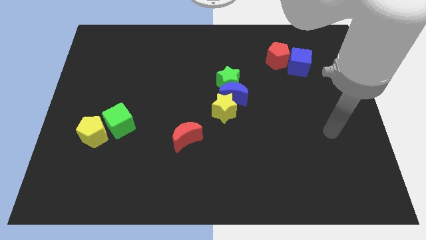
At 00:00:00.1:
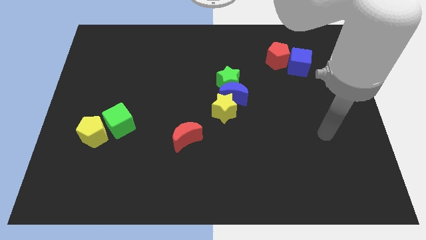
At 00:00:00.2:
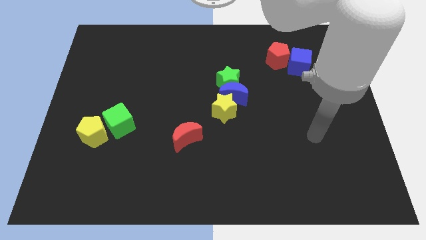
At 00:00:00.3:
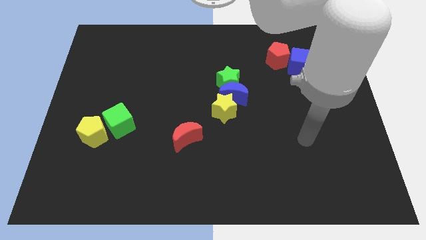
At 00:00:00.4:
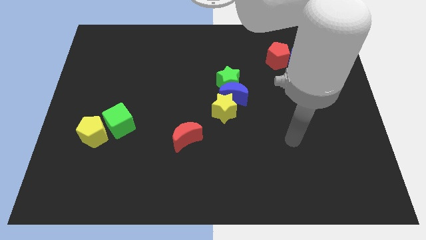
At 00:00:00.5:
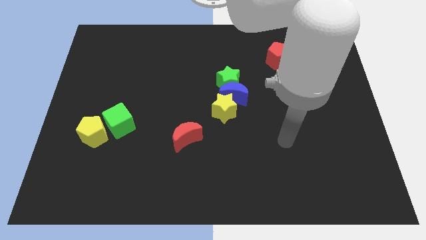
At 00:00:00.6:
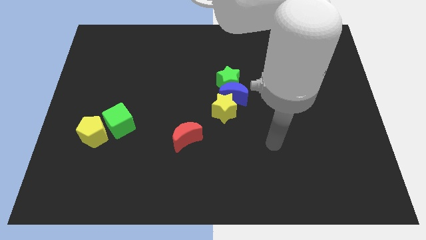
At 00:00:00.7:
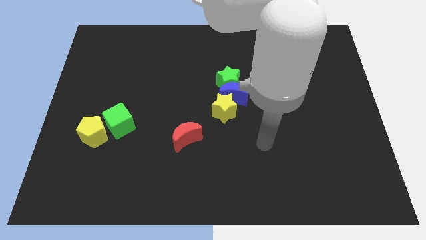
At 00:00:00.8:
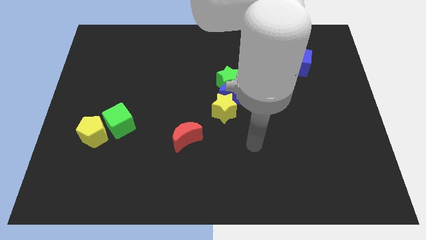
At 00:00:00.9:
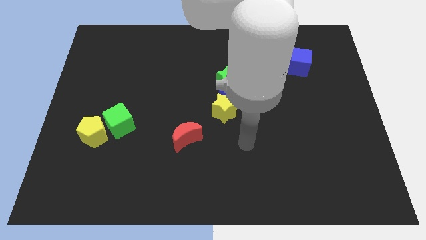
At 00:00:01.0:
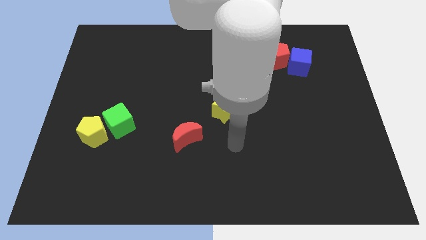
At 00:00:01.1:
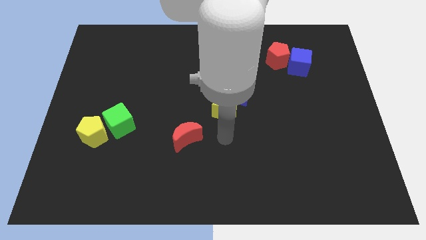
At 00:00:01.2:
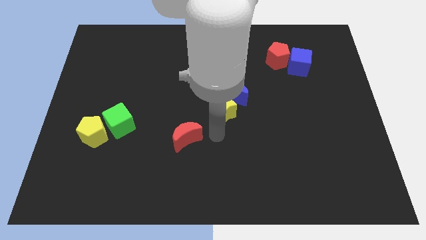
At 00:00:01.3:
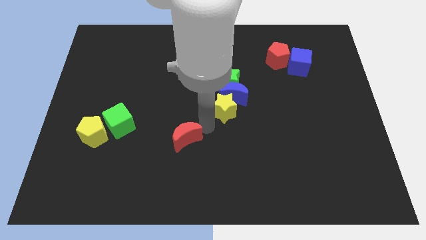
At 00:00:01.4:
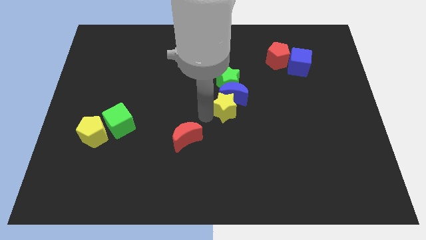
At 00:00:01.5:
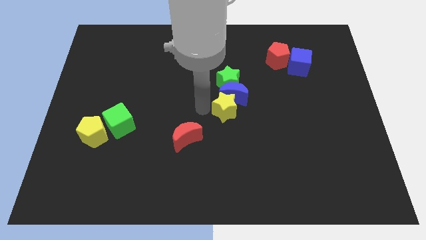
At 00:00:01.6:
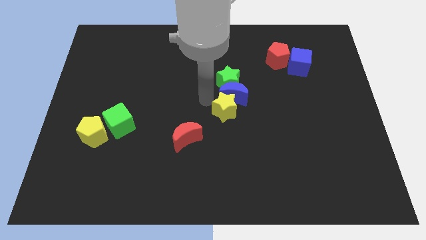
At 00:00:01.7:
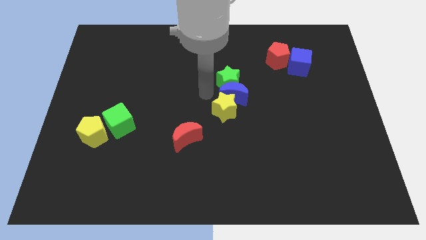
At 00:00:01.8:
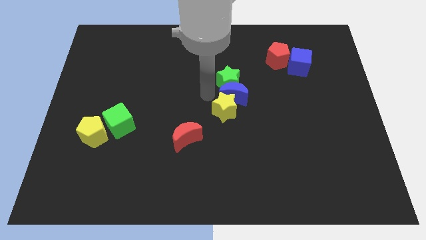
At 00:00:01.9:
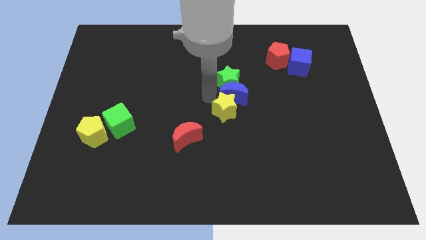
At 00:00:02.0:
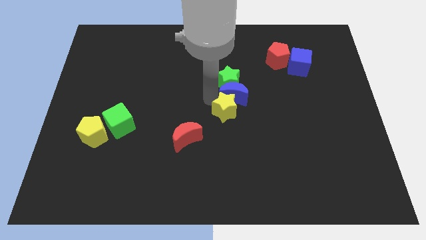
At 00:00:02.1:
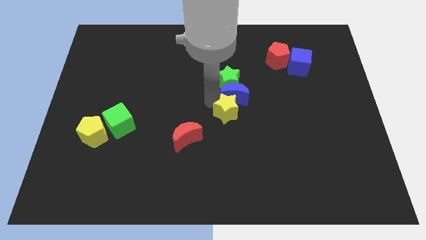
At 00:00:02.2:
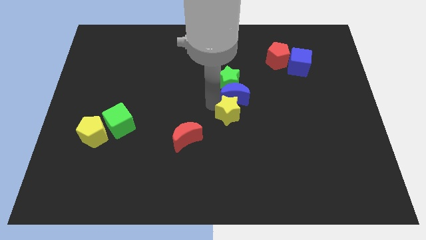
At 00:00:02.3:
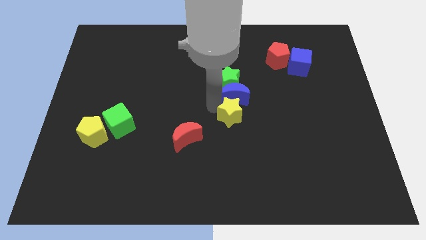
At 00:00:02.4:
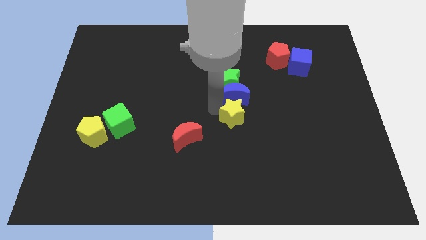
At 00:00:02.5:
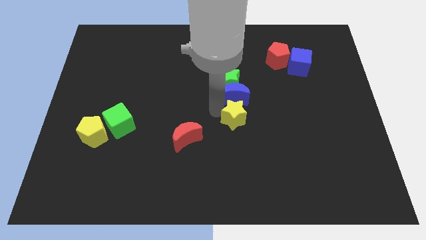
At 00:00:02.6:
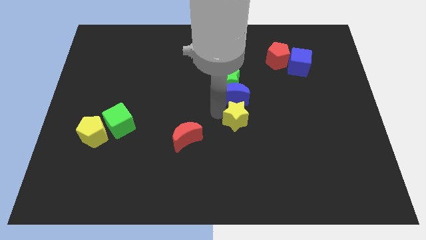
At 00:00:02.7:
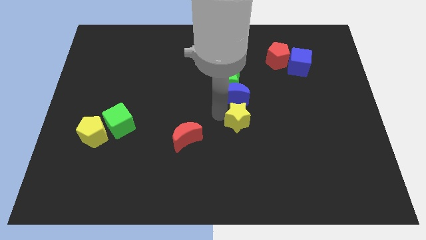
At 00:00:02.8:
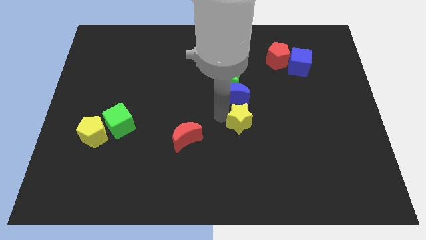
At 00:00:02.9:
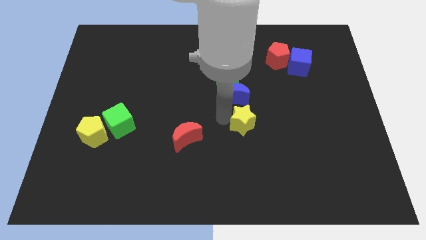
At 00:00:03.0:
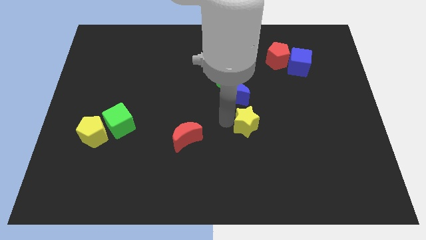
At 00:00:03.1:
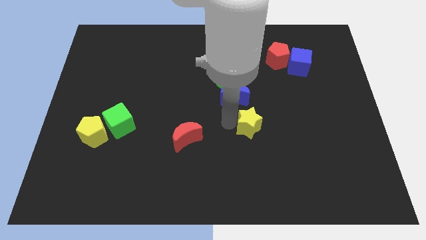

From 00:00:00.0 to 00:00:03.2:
push the yellow star slightly down and then right

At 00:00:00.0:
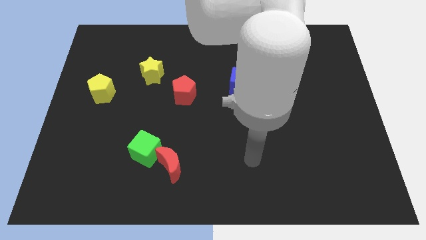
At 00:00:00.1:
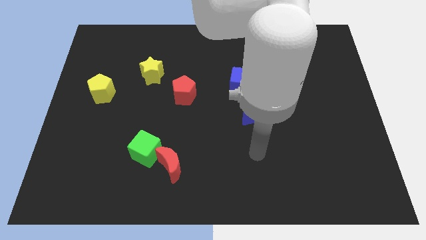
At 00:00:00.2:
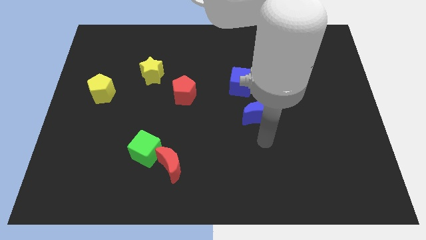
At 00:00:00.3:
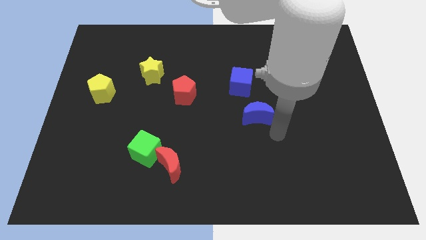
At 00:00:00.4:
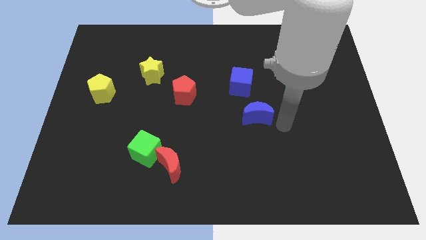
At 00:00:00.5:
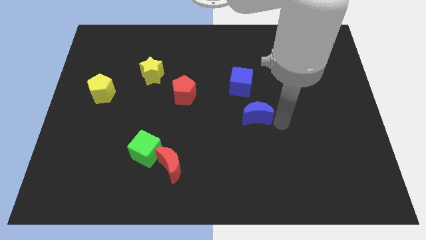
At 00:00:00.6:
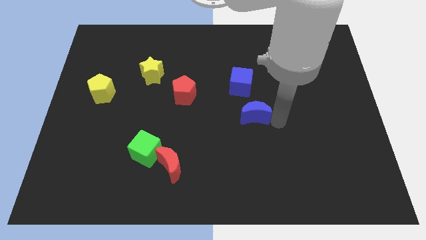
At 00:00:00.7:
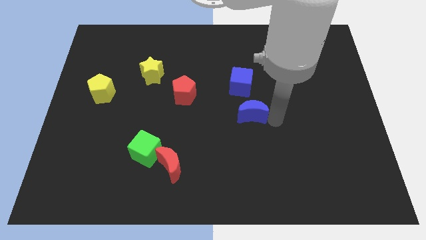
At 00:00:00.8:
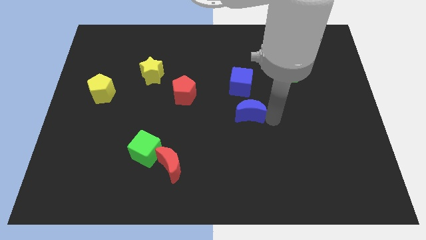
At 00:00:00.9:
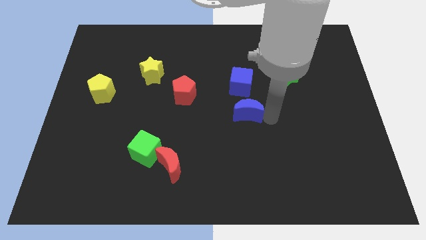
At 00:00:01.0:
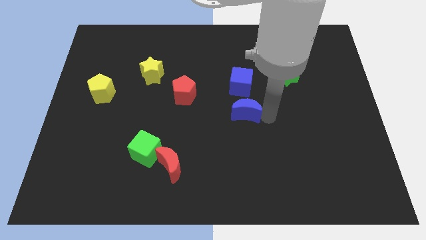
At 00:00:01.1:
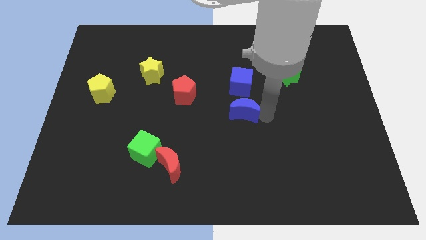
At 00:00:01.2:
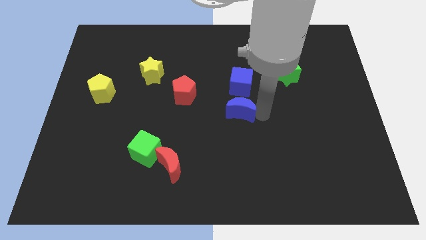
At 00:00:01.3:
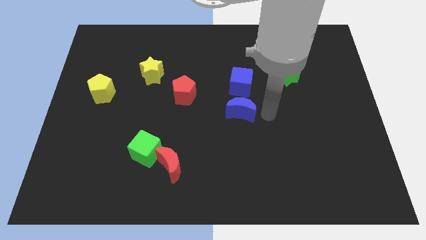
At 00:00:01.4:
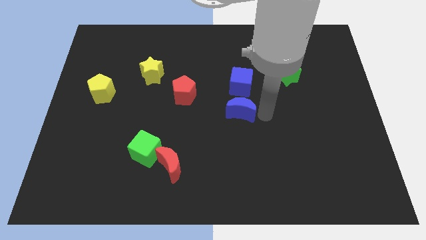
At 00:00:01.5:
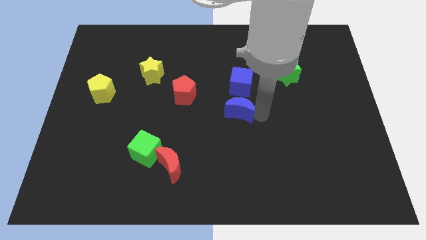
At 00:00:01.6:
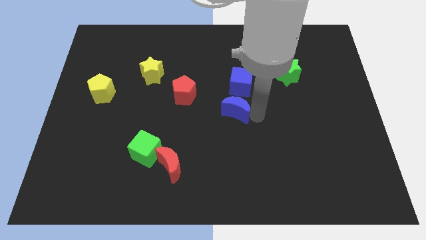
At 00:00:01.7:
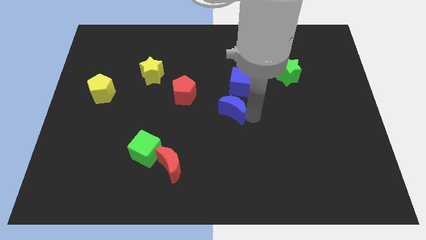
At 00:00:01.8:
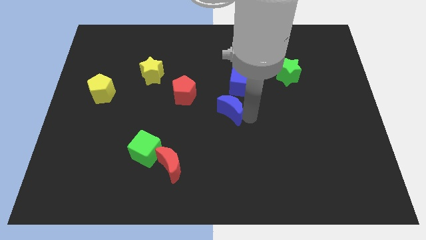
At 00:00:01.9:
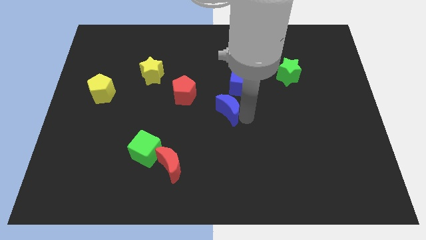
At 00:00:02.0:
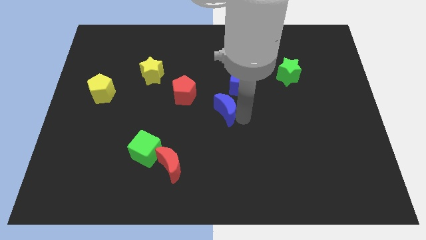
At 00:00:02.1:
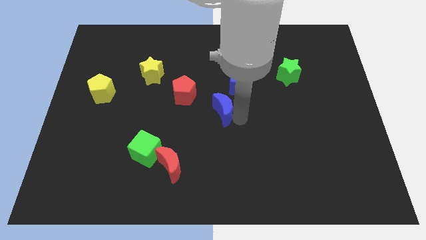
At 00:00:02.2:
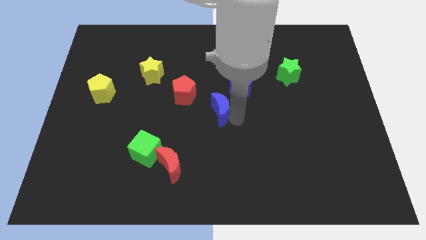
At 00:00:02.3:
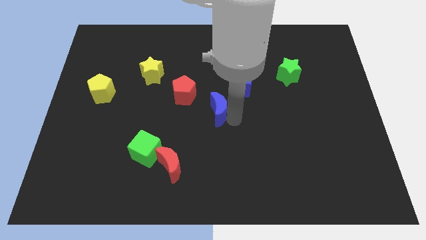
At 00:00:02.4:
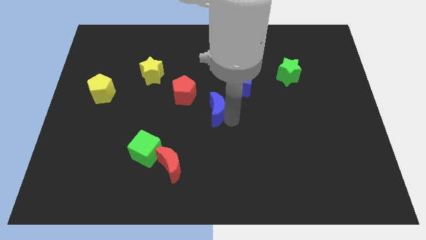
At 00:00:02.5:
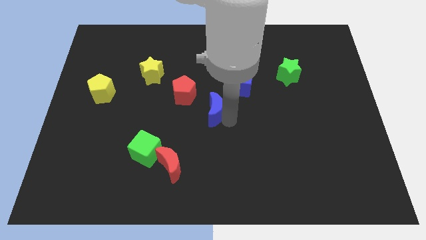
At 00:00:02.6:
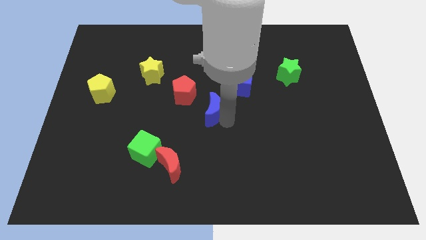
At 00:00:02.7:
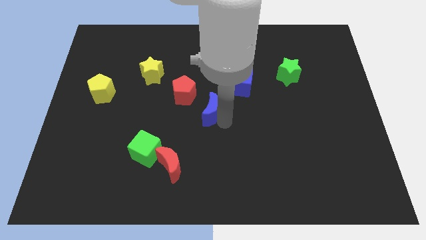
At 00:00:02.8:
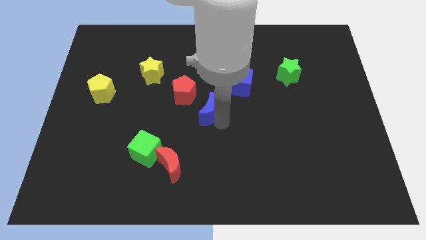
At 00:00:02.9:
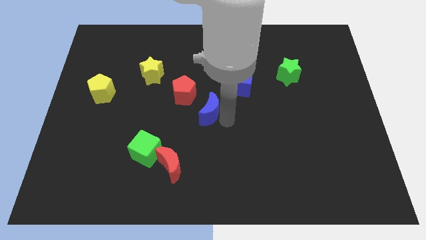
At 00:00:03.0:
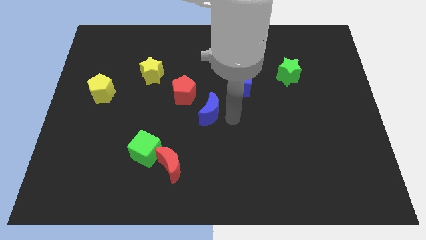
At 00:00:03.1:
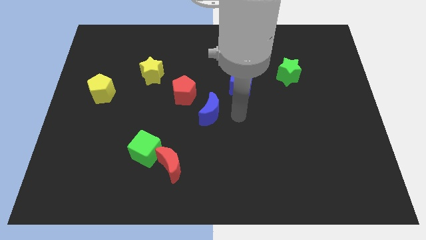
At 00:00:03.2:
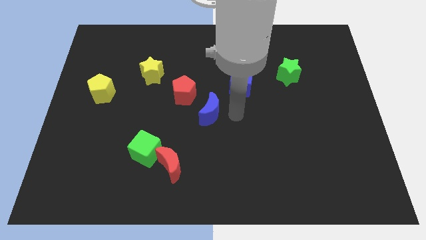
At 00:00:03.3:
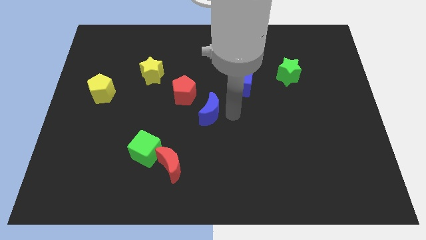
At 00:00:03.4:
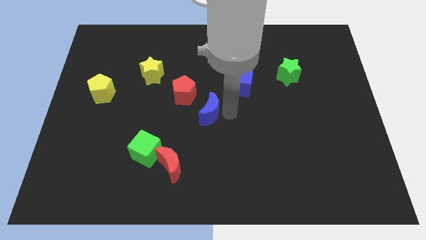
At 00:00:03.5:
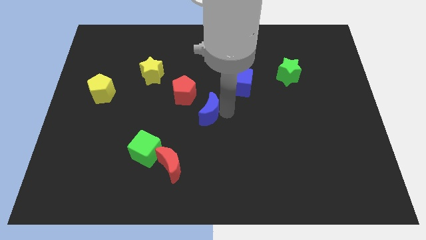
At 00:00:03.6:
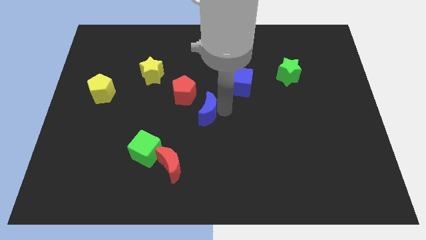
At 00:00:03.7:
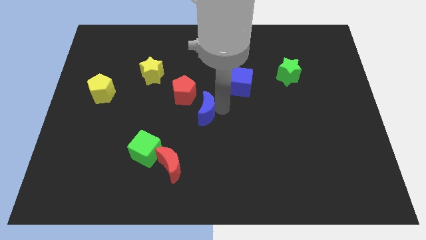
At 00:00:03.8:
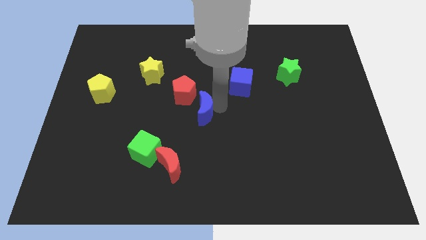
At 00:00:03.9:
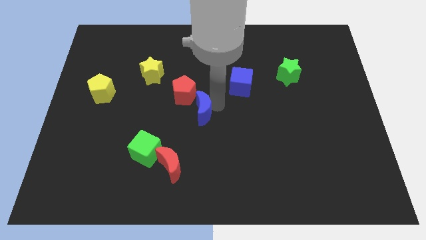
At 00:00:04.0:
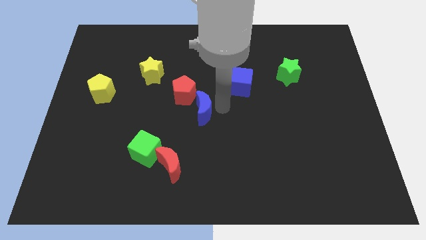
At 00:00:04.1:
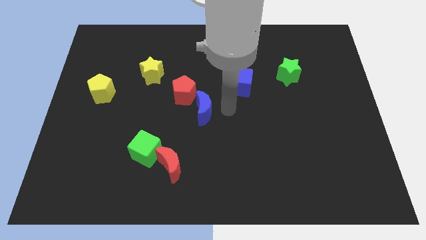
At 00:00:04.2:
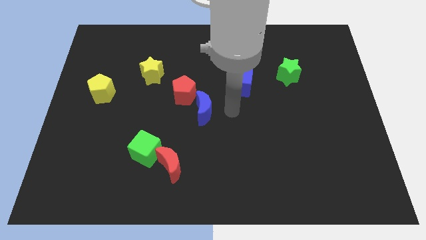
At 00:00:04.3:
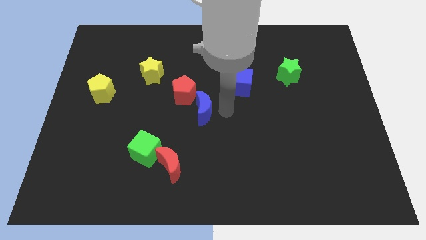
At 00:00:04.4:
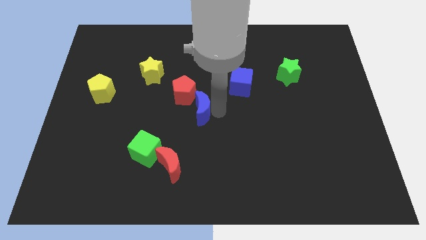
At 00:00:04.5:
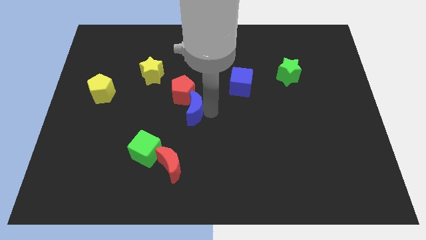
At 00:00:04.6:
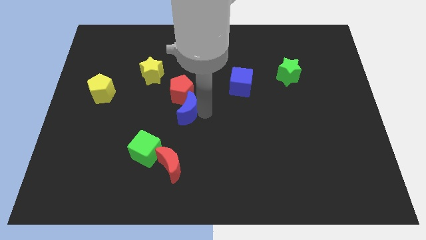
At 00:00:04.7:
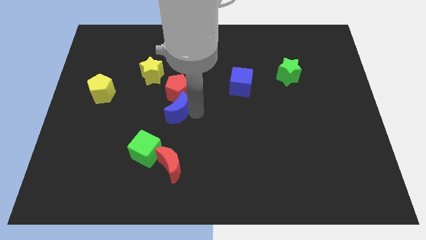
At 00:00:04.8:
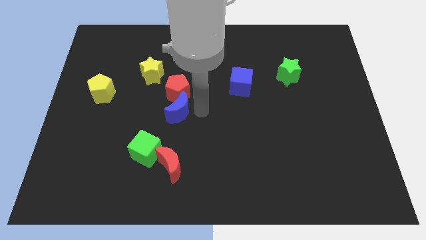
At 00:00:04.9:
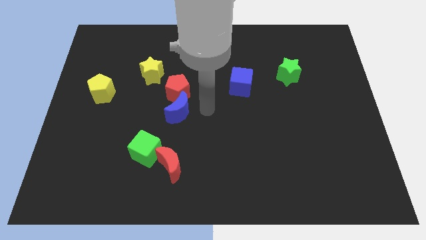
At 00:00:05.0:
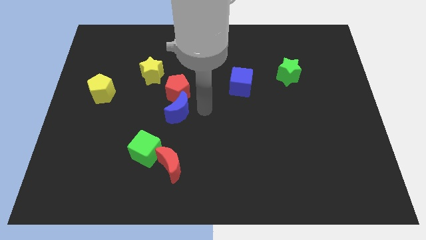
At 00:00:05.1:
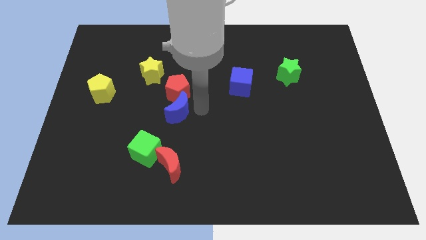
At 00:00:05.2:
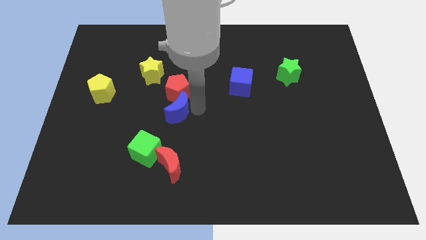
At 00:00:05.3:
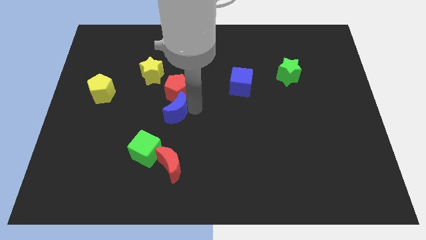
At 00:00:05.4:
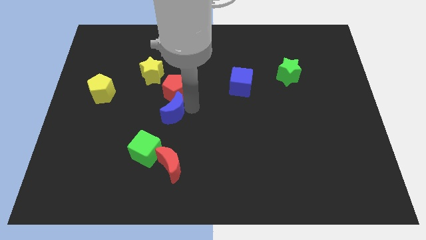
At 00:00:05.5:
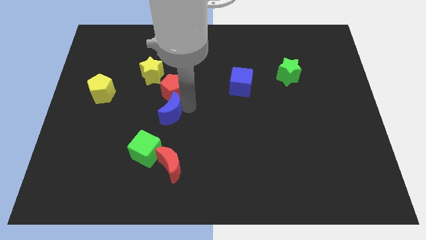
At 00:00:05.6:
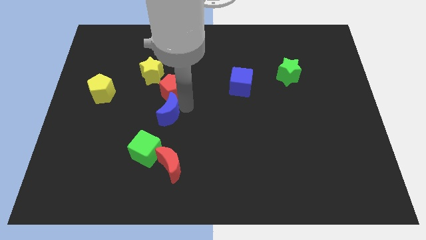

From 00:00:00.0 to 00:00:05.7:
push the blue moon to the left
